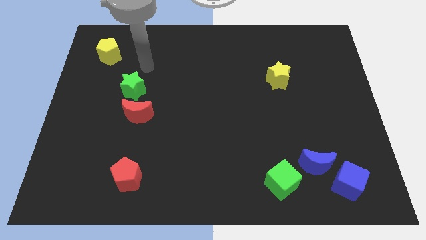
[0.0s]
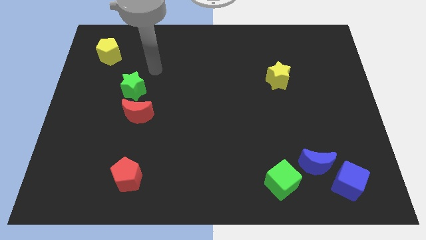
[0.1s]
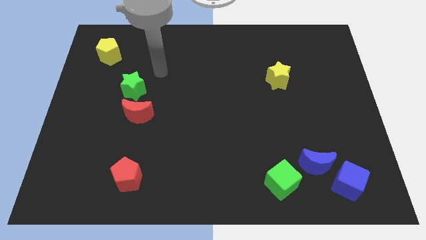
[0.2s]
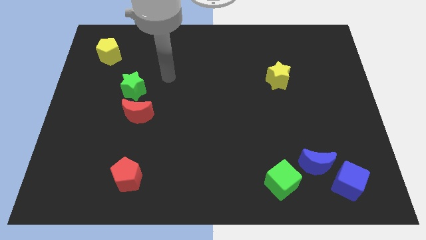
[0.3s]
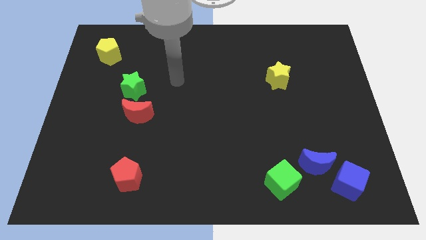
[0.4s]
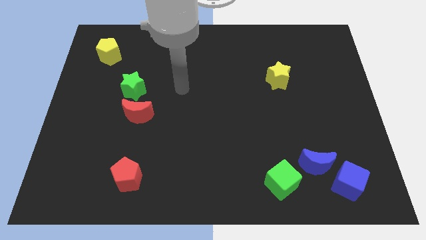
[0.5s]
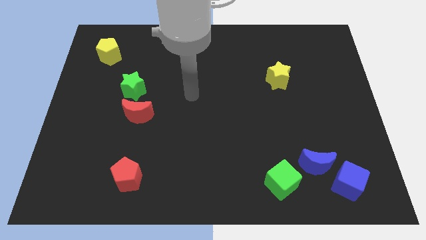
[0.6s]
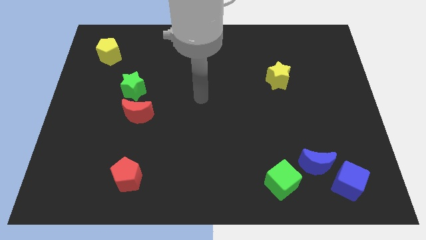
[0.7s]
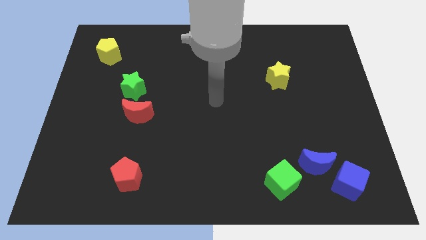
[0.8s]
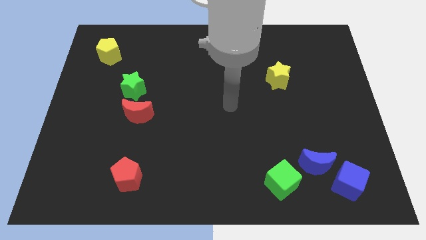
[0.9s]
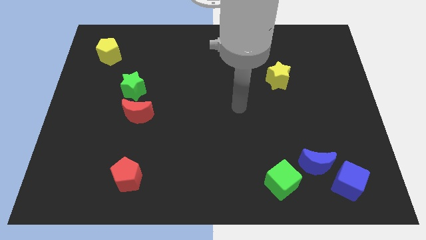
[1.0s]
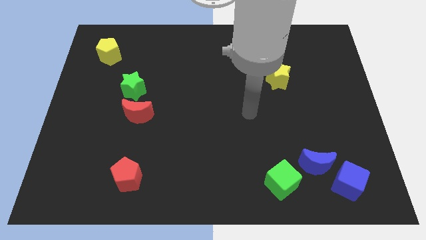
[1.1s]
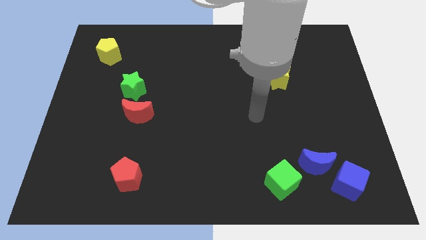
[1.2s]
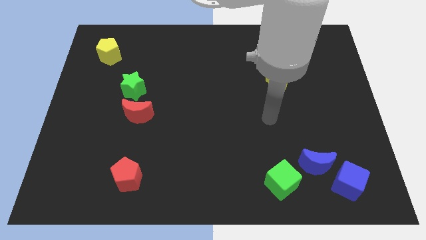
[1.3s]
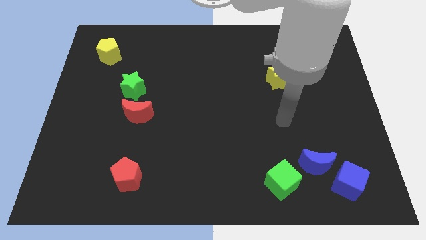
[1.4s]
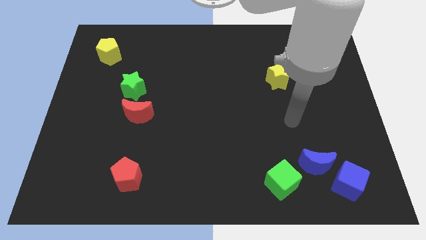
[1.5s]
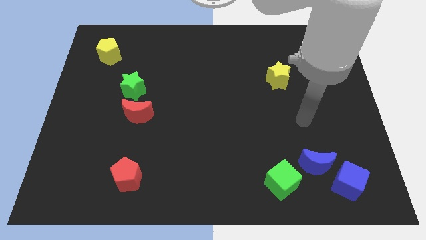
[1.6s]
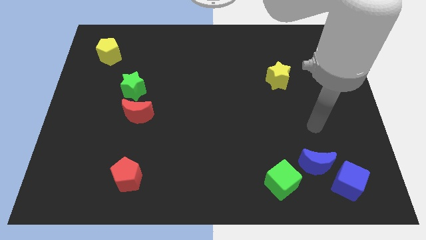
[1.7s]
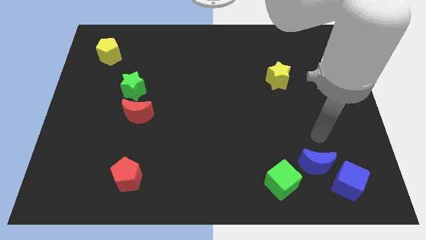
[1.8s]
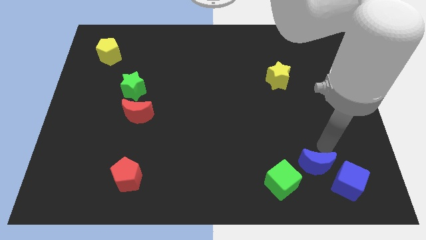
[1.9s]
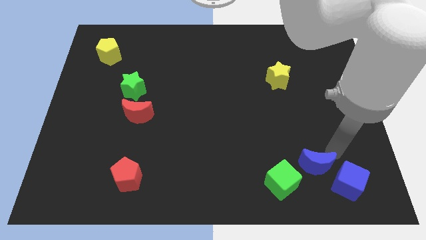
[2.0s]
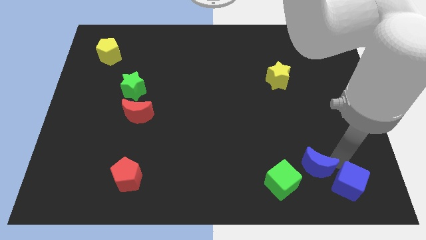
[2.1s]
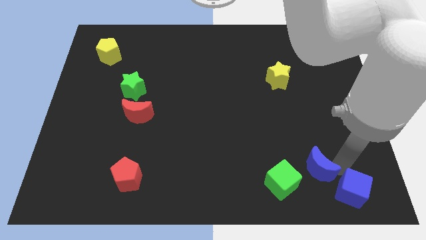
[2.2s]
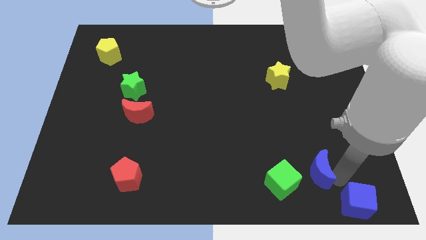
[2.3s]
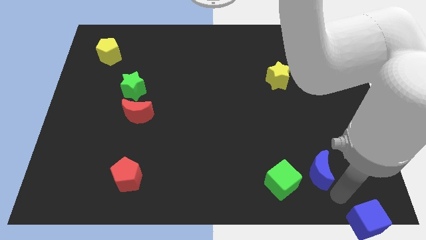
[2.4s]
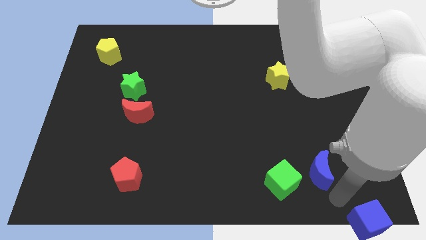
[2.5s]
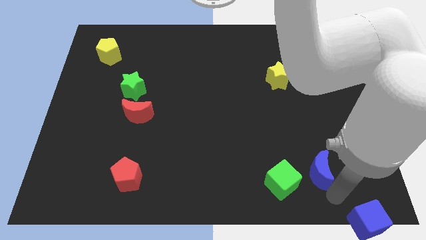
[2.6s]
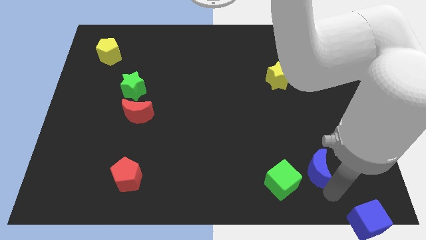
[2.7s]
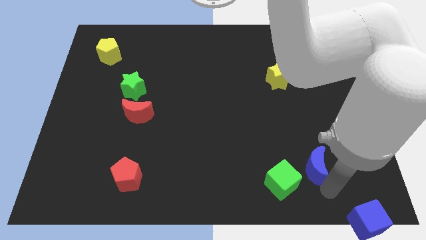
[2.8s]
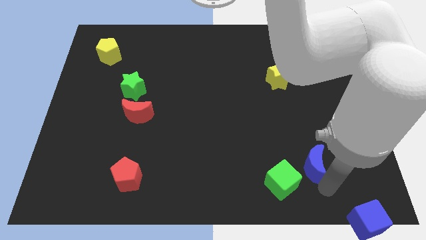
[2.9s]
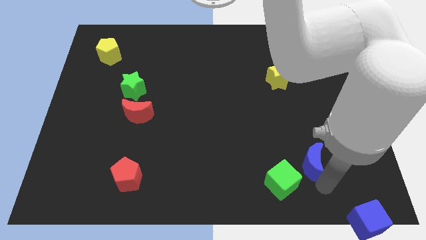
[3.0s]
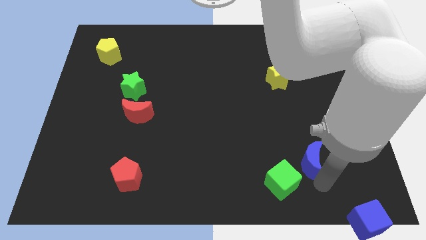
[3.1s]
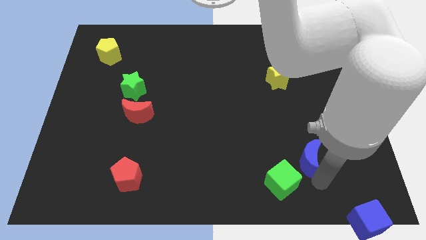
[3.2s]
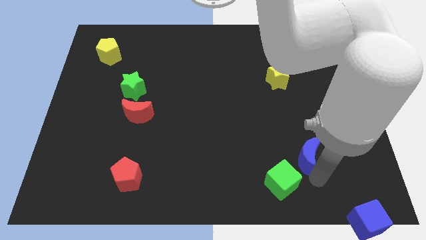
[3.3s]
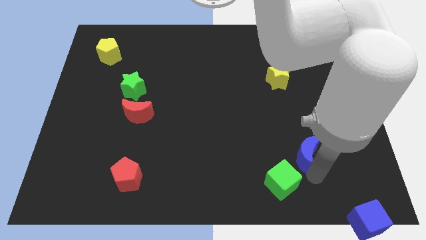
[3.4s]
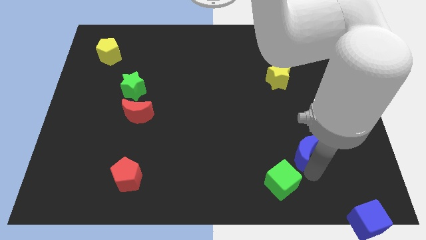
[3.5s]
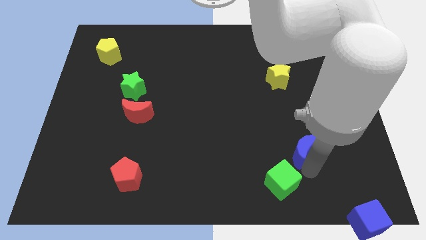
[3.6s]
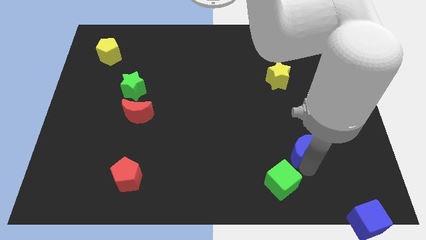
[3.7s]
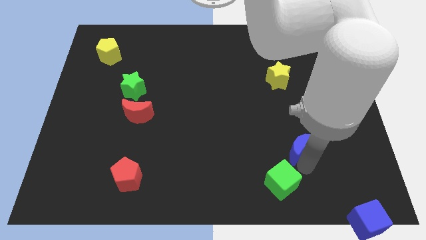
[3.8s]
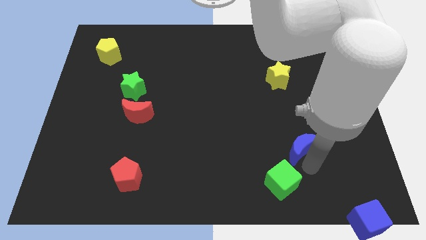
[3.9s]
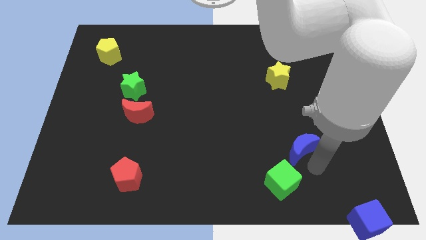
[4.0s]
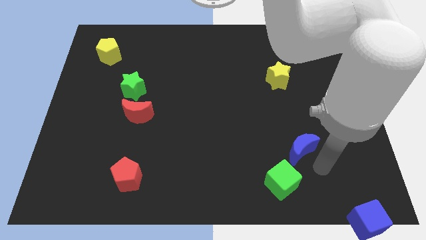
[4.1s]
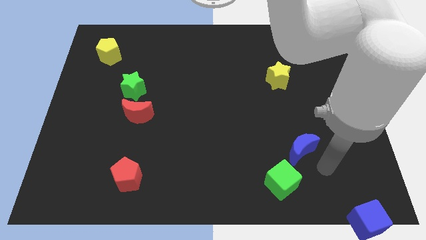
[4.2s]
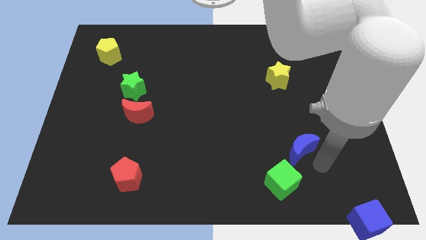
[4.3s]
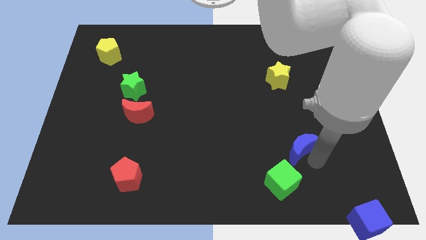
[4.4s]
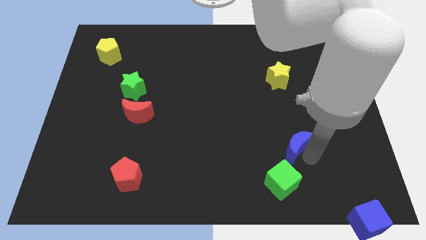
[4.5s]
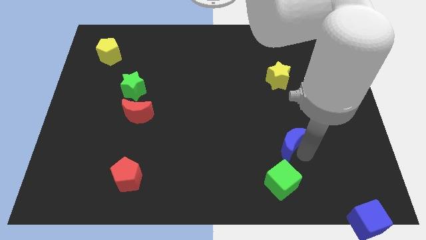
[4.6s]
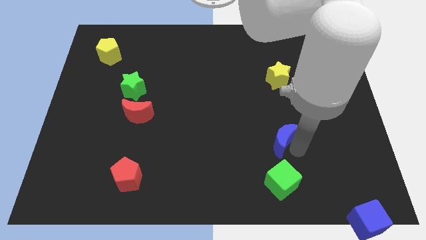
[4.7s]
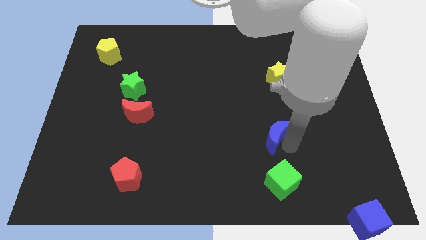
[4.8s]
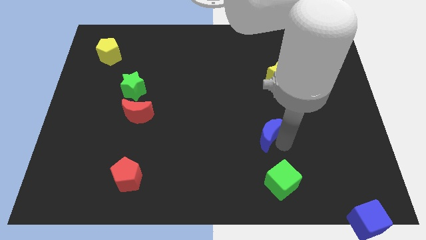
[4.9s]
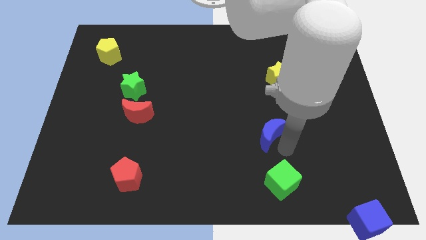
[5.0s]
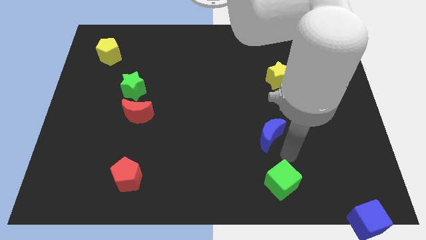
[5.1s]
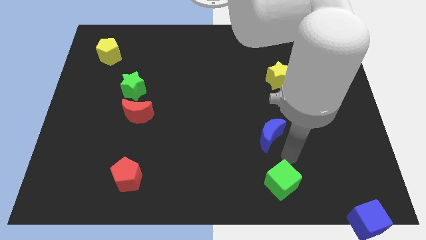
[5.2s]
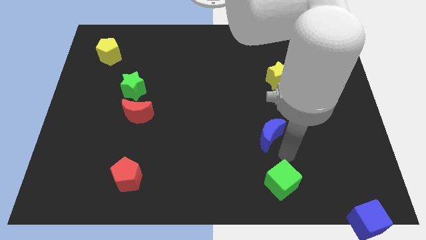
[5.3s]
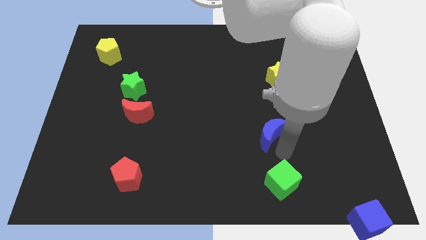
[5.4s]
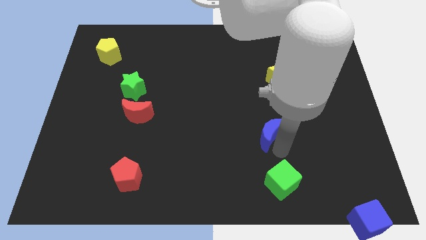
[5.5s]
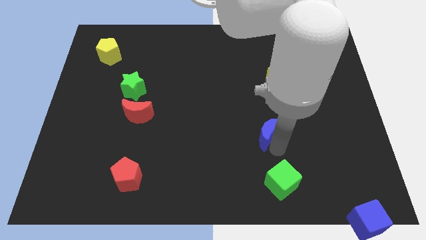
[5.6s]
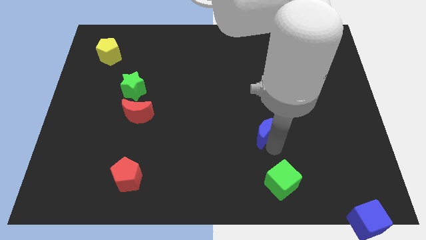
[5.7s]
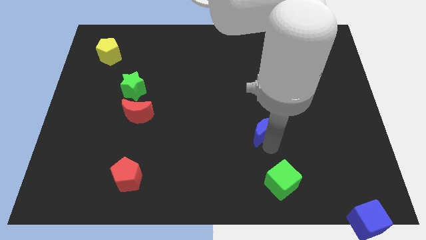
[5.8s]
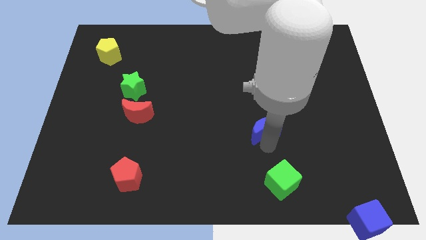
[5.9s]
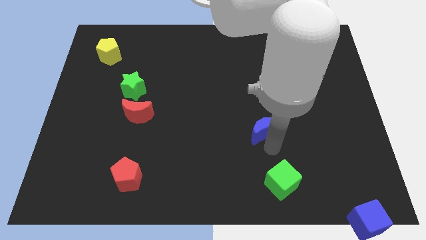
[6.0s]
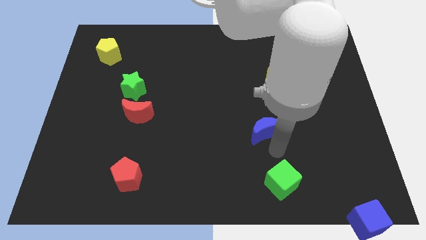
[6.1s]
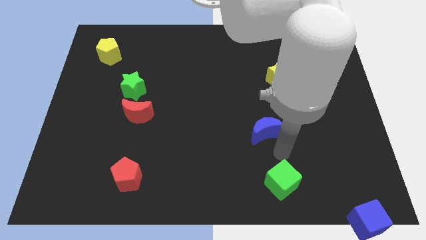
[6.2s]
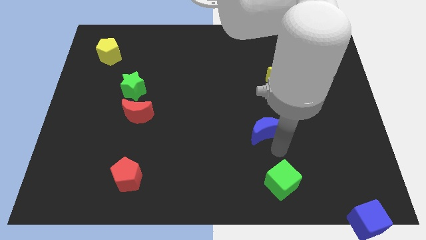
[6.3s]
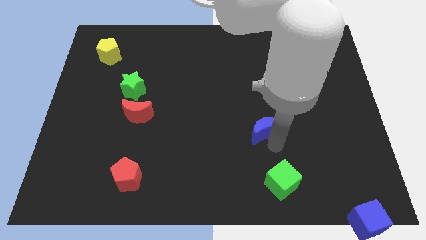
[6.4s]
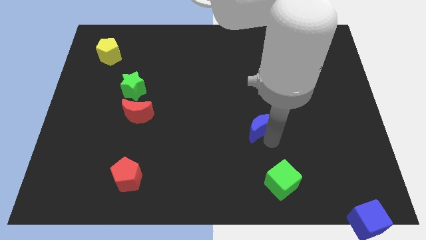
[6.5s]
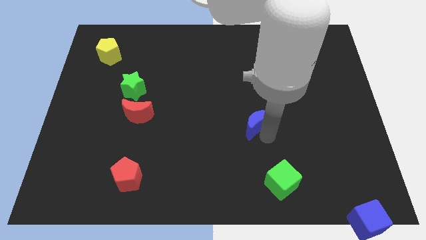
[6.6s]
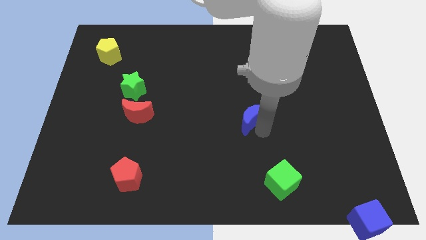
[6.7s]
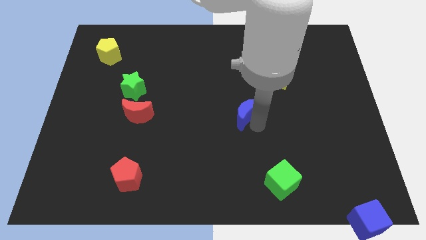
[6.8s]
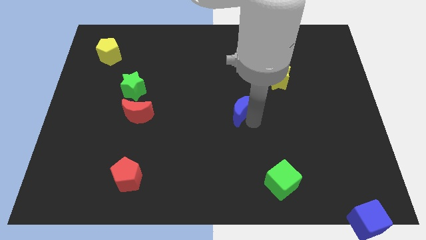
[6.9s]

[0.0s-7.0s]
slide the blue moon upwards and left

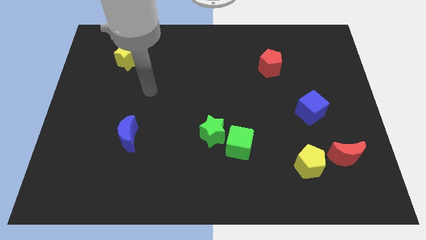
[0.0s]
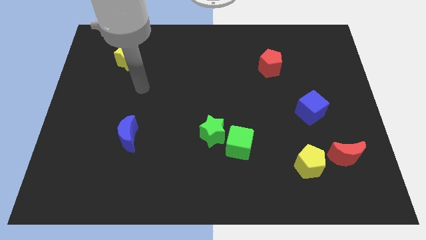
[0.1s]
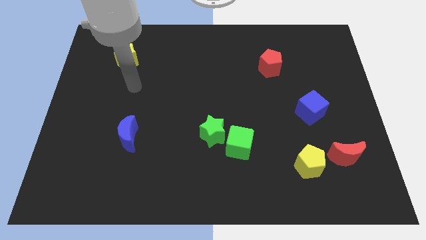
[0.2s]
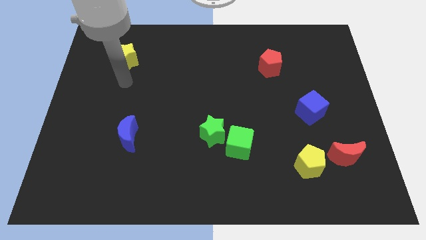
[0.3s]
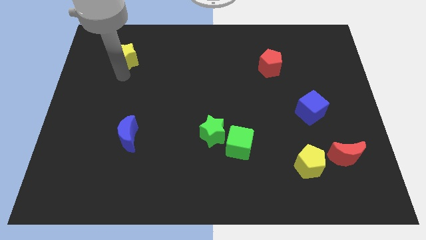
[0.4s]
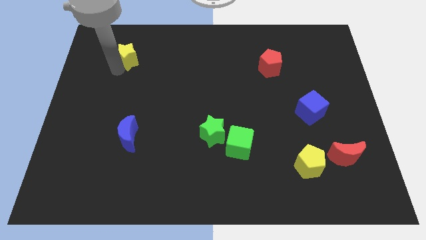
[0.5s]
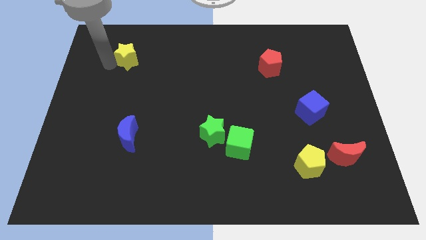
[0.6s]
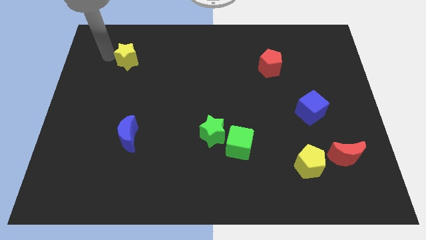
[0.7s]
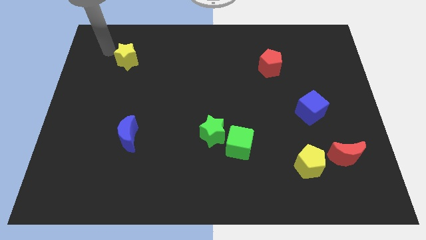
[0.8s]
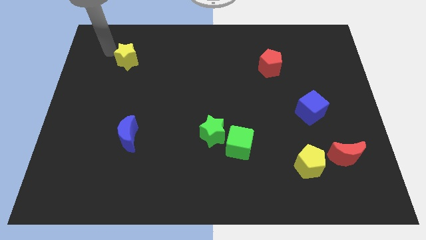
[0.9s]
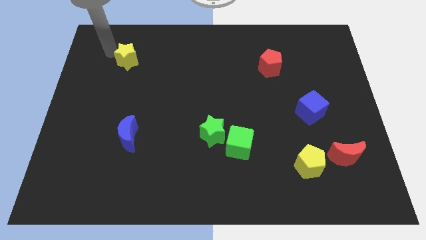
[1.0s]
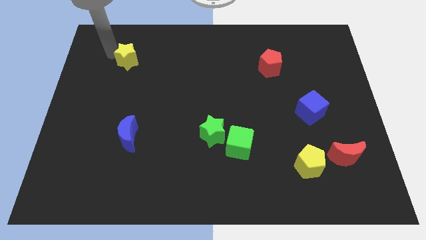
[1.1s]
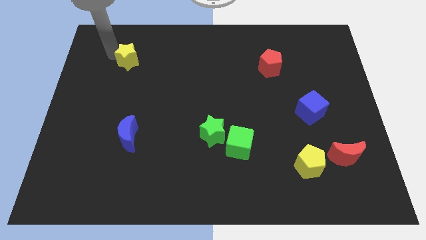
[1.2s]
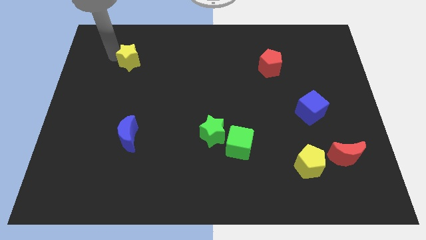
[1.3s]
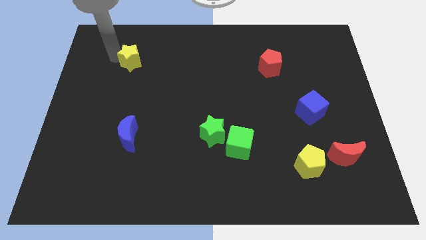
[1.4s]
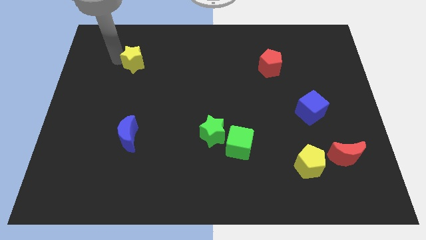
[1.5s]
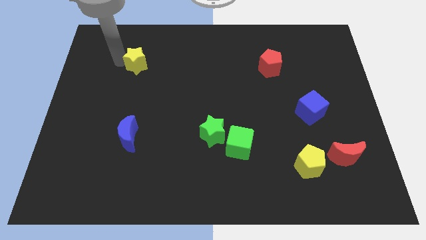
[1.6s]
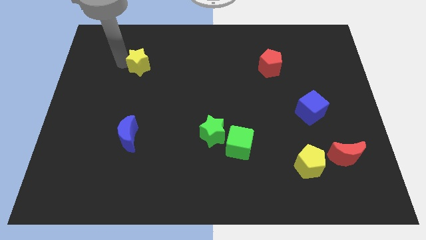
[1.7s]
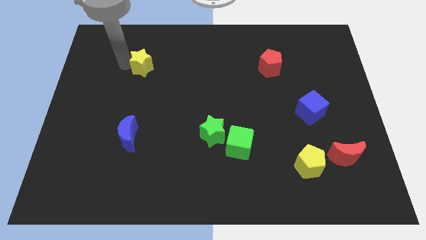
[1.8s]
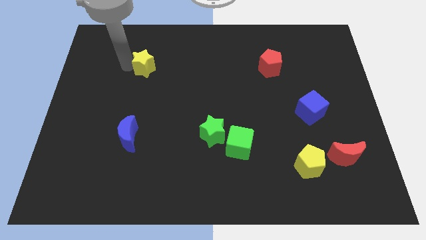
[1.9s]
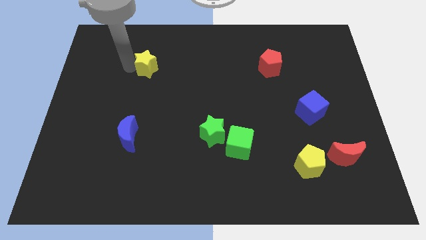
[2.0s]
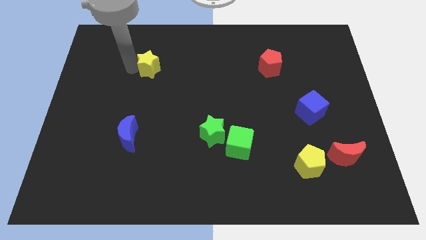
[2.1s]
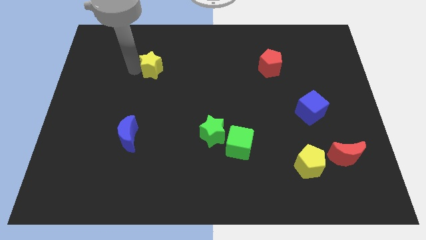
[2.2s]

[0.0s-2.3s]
push the yellow star down and to the right diagonally a little bit
